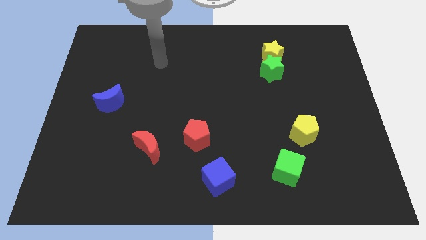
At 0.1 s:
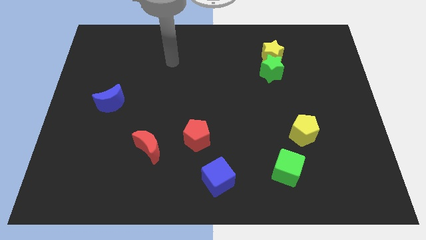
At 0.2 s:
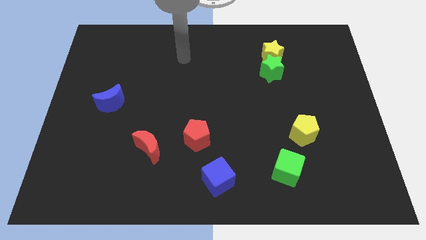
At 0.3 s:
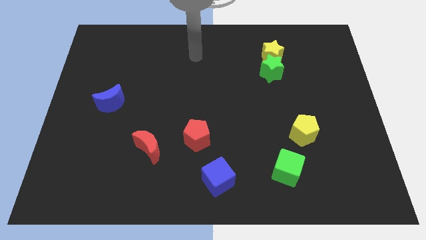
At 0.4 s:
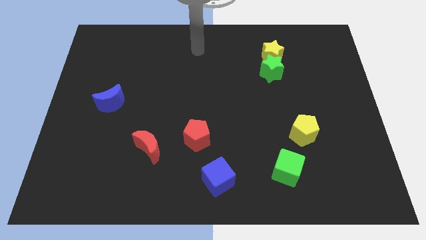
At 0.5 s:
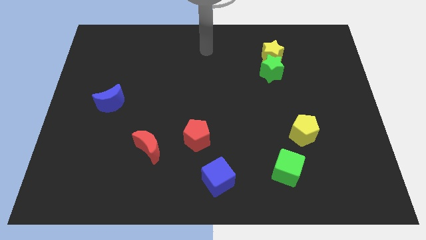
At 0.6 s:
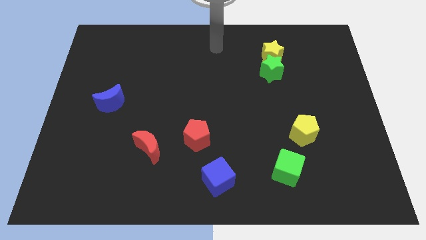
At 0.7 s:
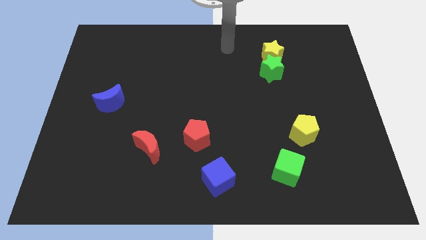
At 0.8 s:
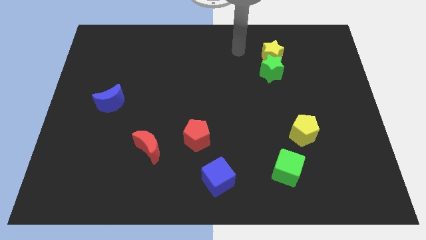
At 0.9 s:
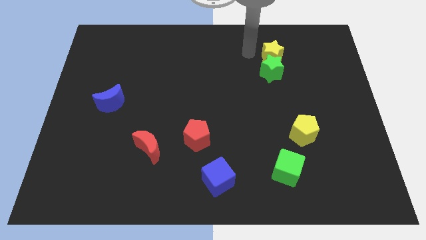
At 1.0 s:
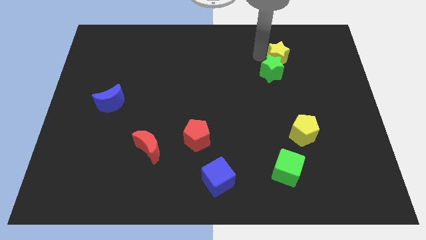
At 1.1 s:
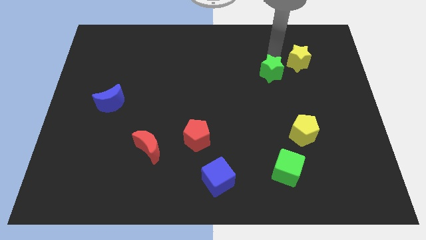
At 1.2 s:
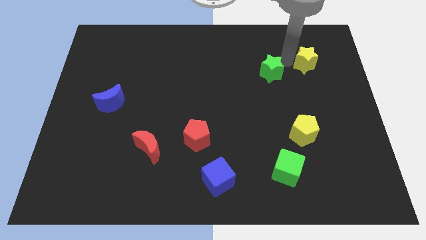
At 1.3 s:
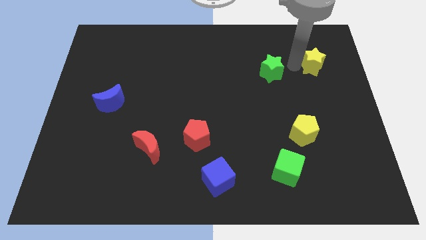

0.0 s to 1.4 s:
separate the green star from the yellow star

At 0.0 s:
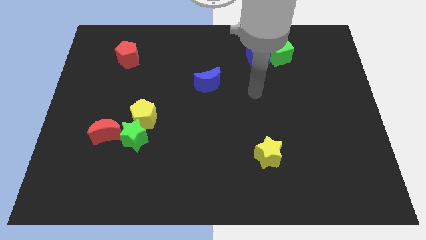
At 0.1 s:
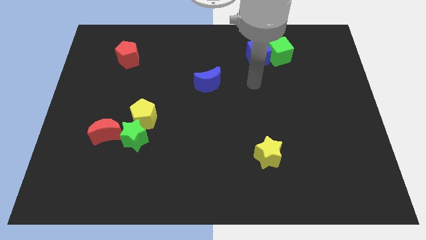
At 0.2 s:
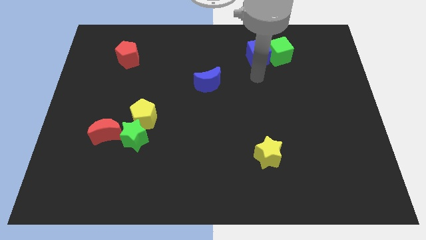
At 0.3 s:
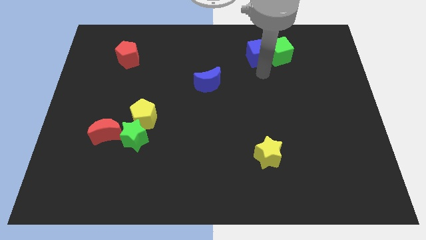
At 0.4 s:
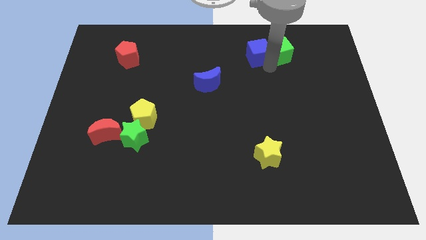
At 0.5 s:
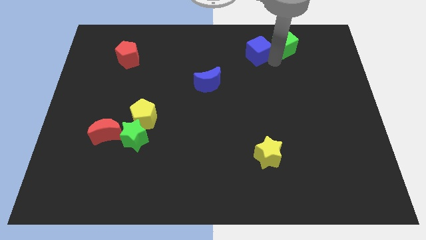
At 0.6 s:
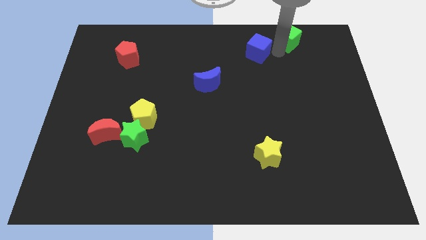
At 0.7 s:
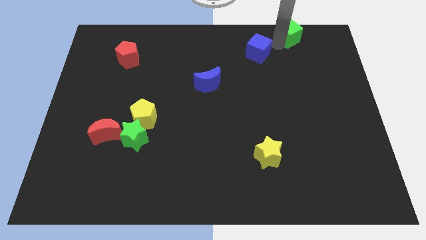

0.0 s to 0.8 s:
move the blue cube away from the green cube

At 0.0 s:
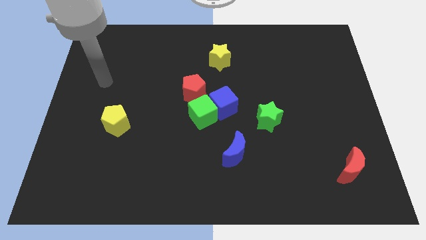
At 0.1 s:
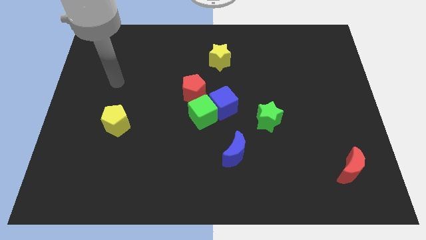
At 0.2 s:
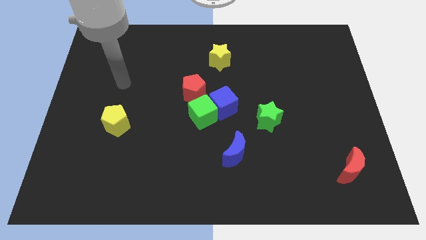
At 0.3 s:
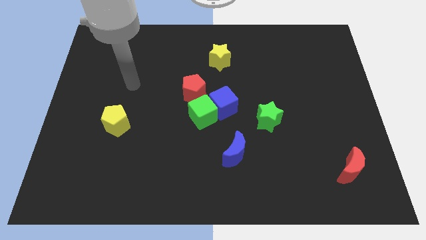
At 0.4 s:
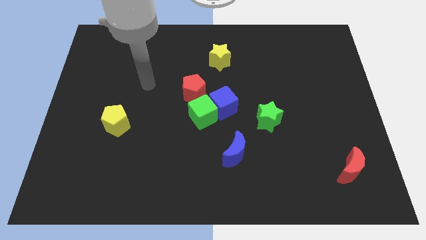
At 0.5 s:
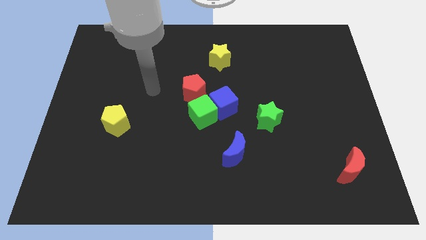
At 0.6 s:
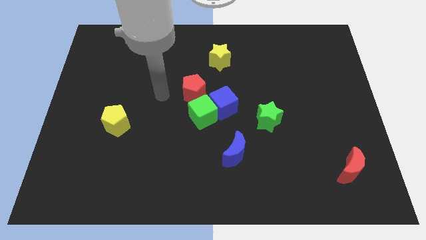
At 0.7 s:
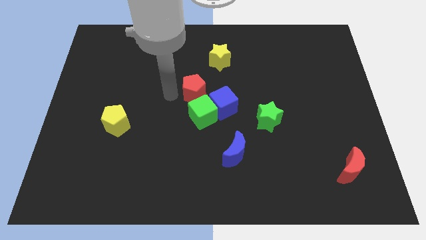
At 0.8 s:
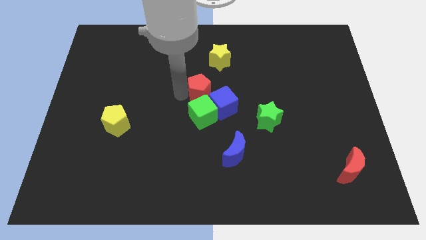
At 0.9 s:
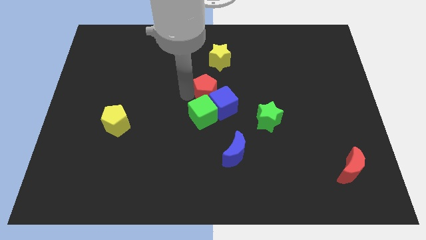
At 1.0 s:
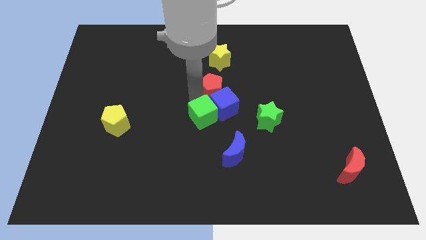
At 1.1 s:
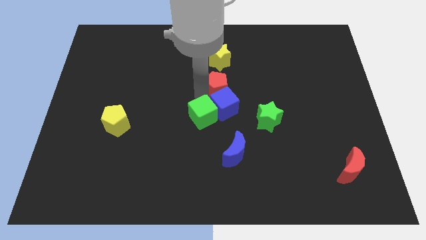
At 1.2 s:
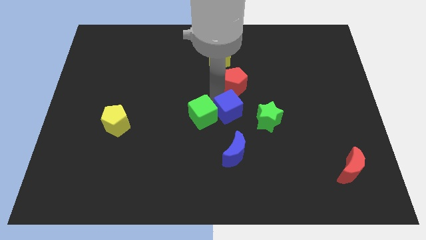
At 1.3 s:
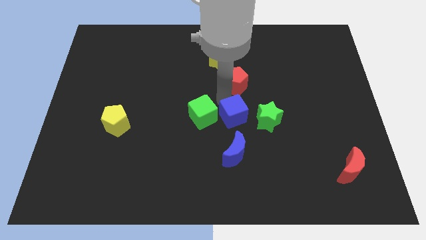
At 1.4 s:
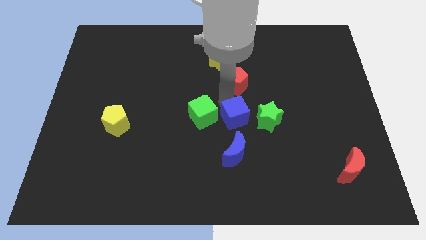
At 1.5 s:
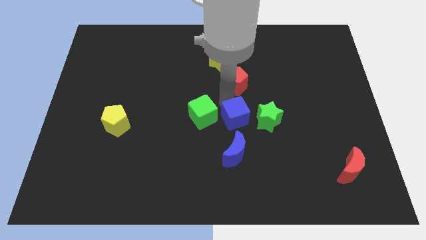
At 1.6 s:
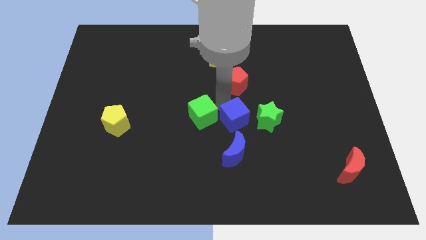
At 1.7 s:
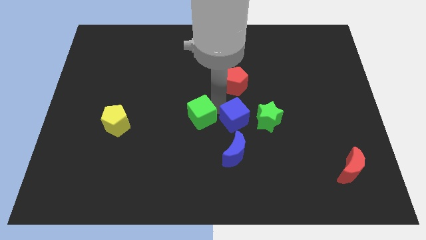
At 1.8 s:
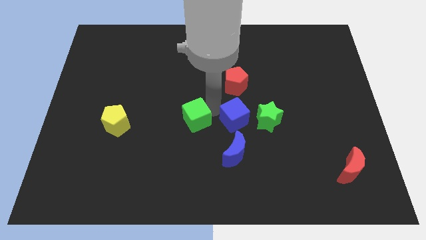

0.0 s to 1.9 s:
separate the green cube from the blue cube and red pentagon

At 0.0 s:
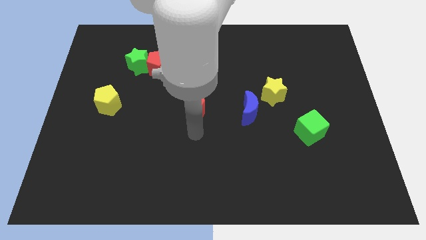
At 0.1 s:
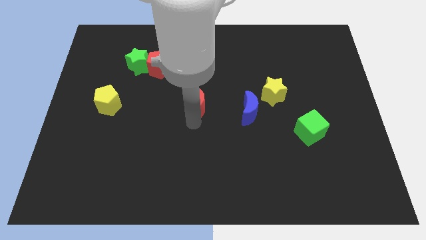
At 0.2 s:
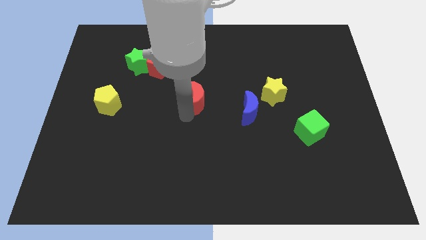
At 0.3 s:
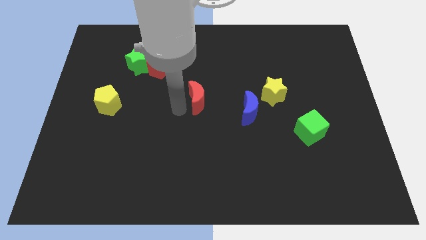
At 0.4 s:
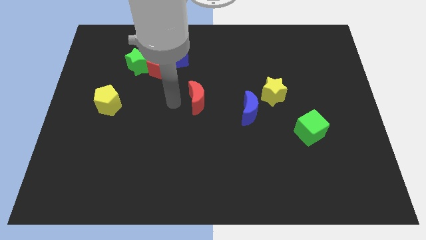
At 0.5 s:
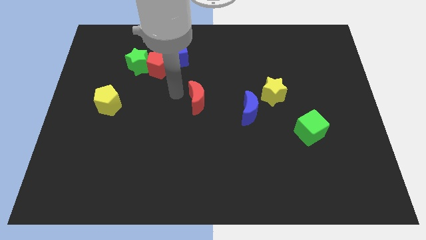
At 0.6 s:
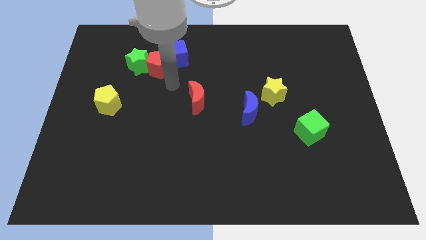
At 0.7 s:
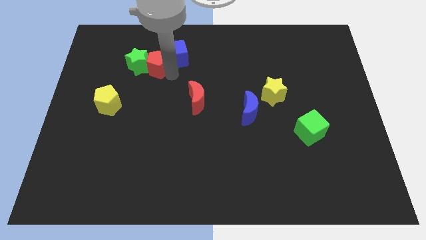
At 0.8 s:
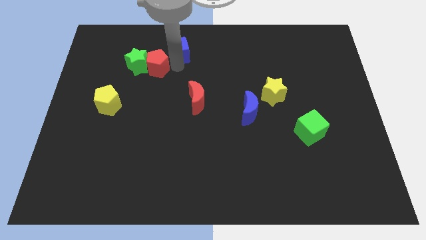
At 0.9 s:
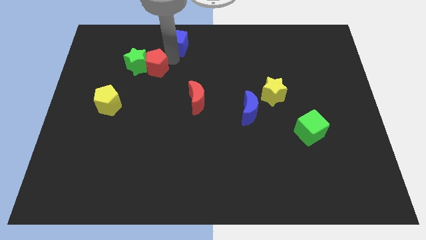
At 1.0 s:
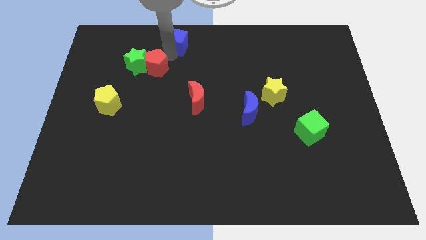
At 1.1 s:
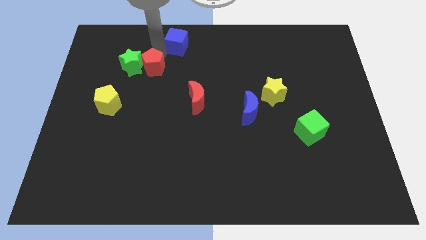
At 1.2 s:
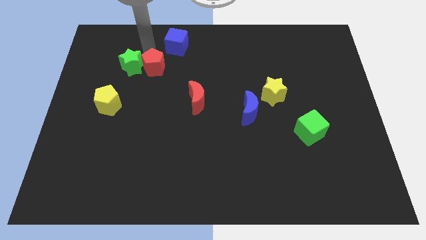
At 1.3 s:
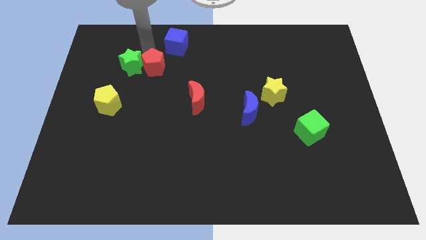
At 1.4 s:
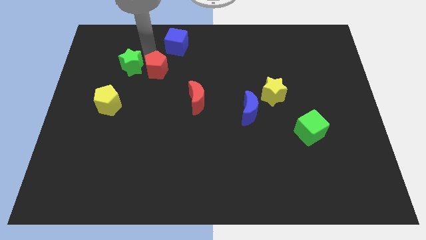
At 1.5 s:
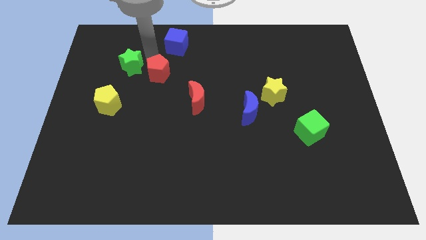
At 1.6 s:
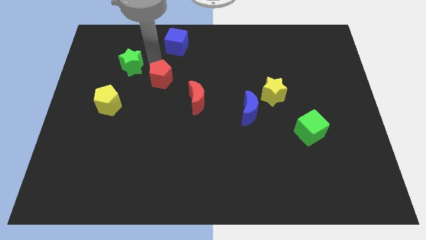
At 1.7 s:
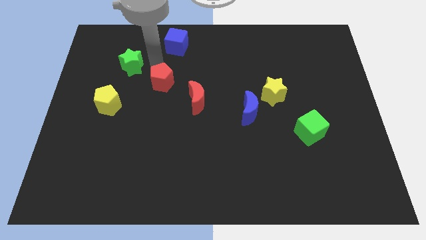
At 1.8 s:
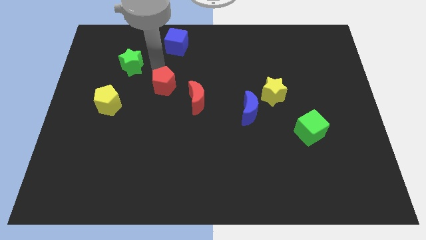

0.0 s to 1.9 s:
separate the red pentagon from the green star and blue cube

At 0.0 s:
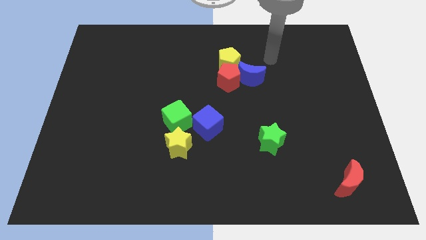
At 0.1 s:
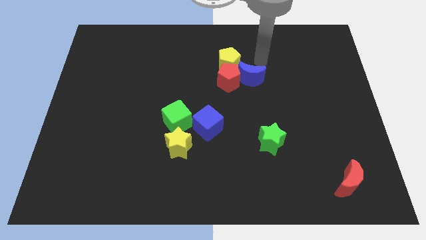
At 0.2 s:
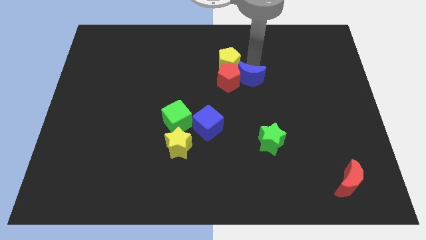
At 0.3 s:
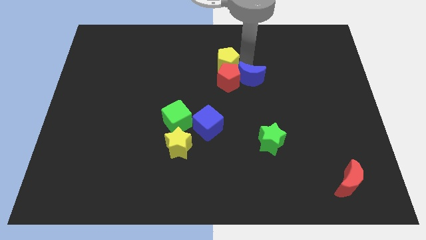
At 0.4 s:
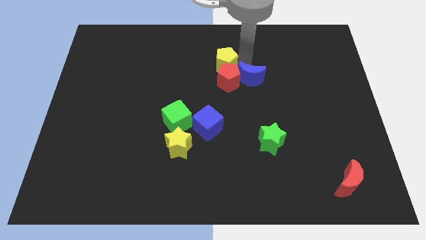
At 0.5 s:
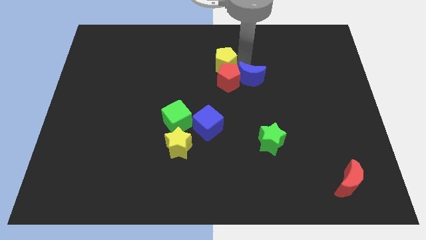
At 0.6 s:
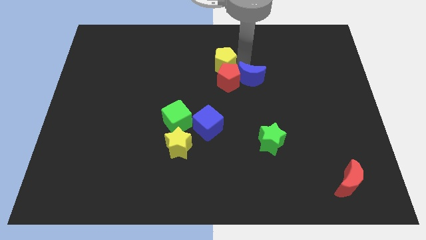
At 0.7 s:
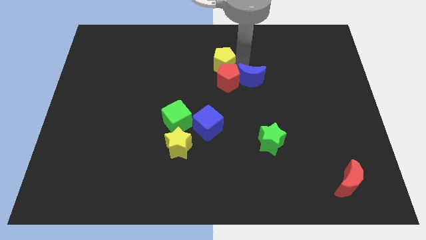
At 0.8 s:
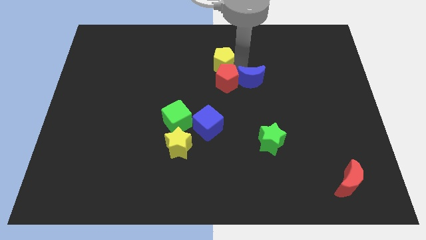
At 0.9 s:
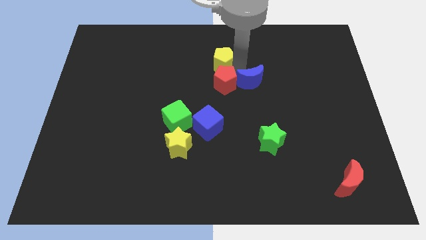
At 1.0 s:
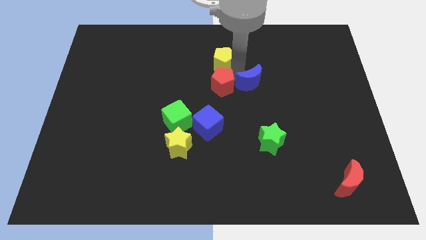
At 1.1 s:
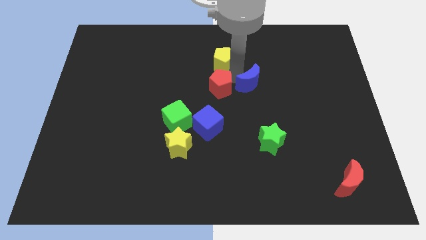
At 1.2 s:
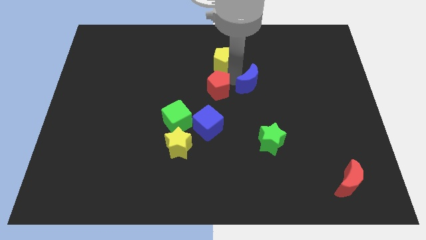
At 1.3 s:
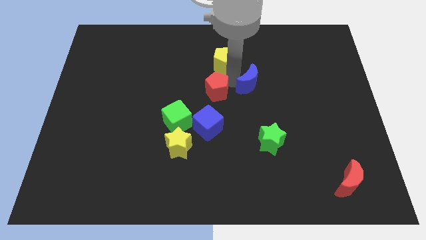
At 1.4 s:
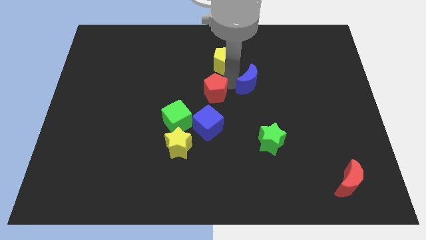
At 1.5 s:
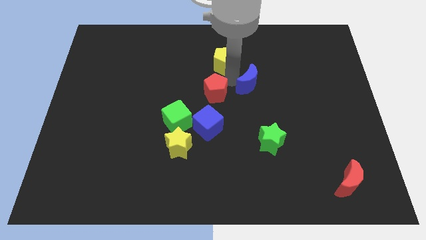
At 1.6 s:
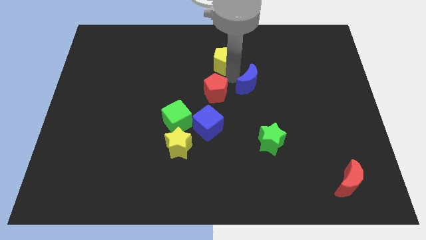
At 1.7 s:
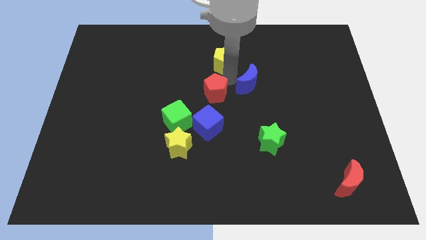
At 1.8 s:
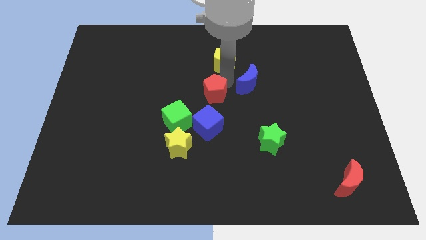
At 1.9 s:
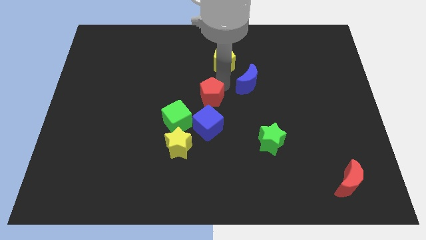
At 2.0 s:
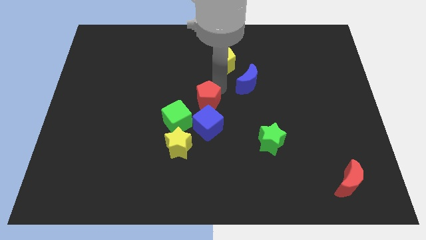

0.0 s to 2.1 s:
separate the red pentagon from the blue moon and yellow pentagon

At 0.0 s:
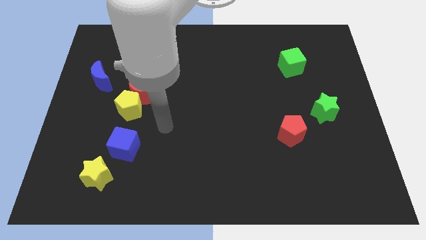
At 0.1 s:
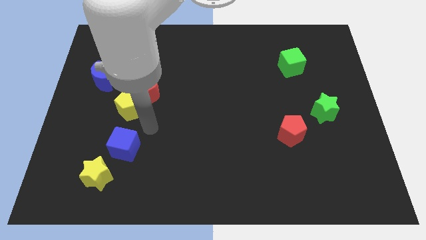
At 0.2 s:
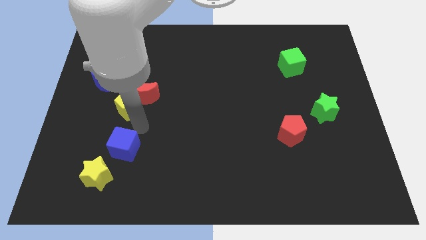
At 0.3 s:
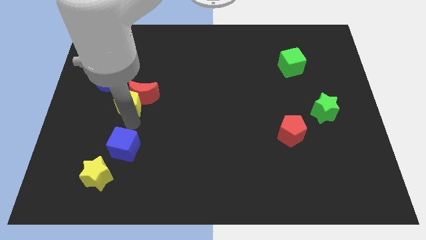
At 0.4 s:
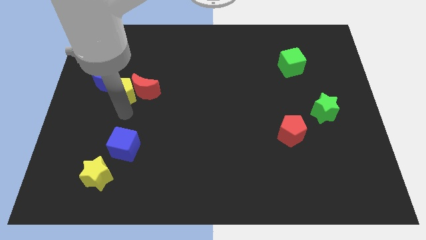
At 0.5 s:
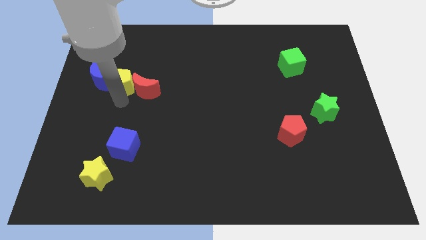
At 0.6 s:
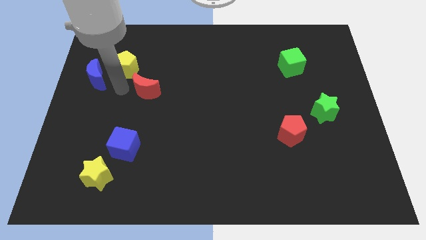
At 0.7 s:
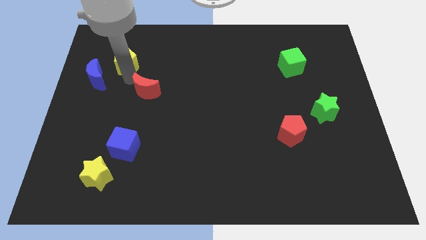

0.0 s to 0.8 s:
pull the red moon apart from the yellow pentagon

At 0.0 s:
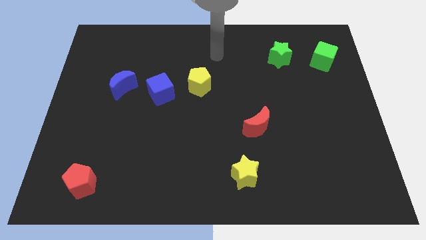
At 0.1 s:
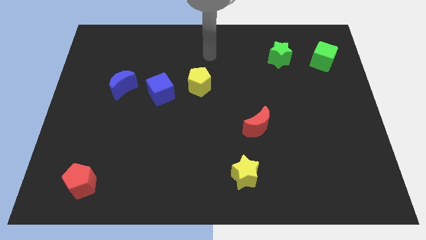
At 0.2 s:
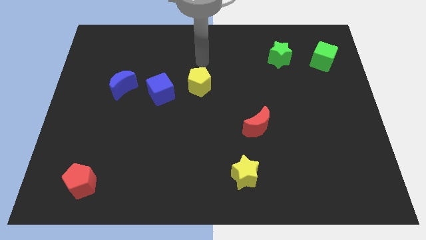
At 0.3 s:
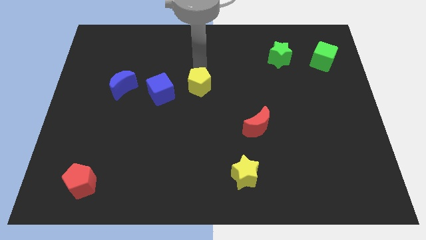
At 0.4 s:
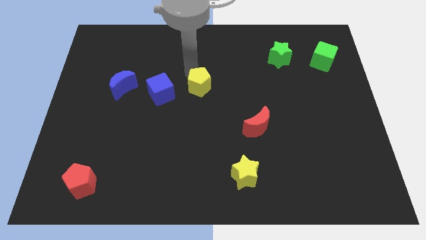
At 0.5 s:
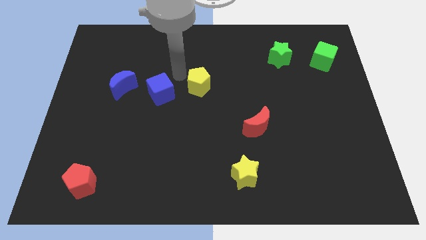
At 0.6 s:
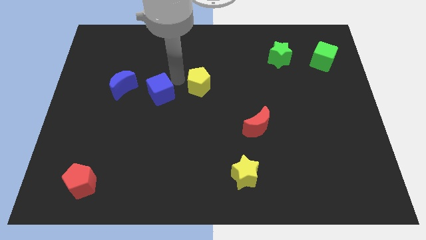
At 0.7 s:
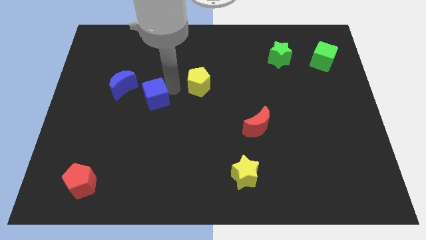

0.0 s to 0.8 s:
move the yellow pentagon away from the blue cube
